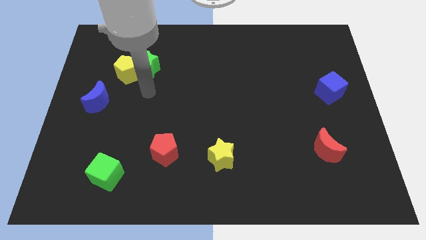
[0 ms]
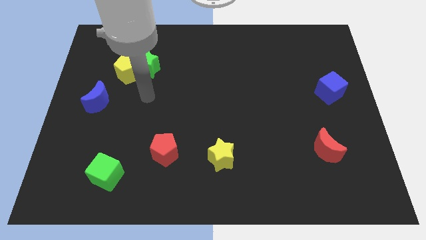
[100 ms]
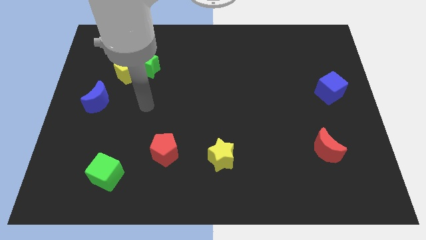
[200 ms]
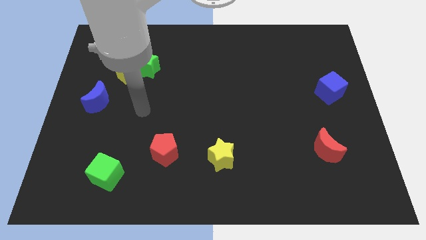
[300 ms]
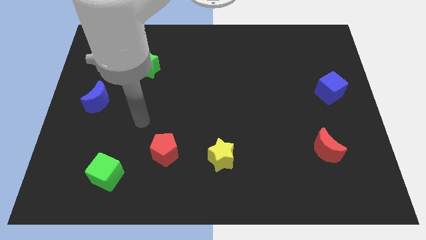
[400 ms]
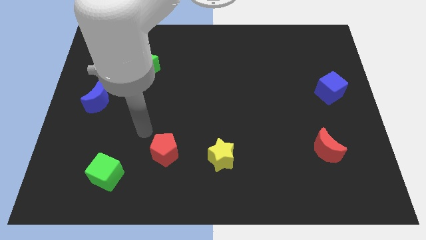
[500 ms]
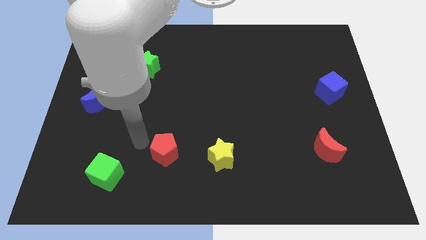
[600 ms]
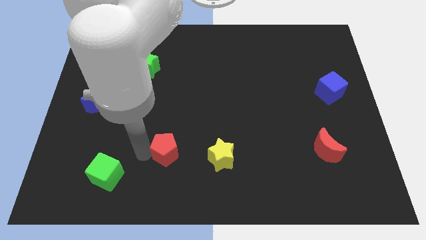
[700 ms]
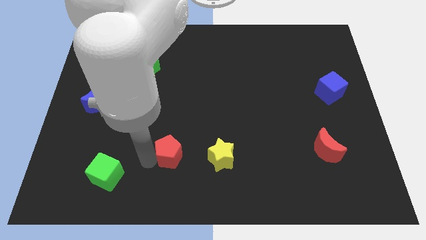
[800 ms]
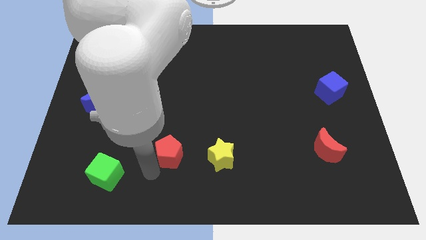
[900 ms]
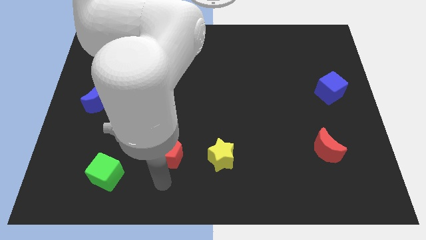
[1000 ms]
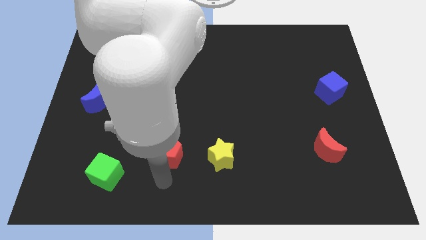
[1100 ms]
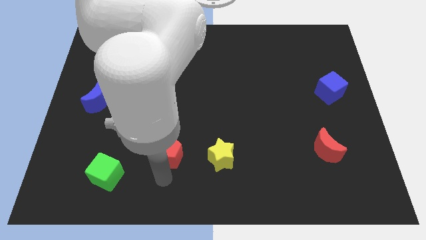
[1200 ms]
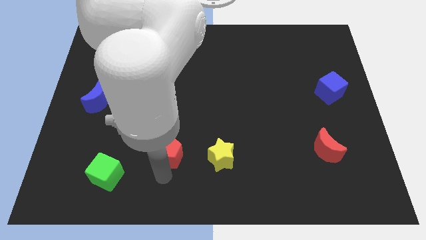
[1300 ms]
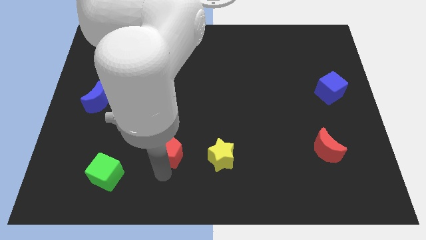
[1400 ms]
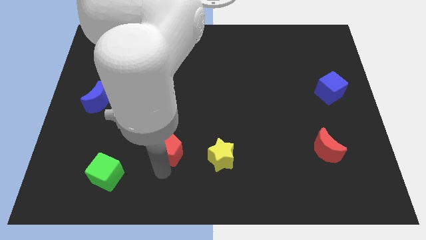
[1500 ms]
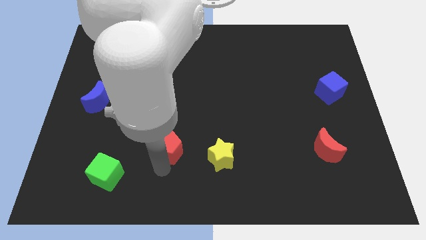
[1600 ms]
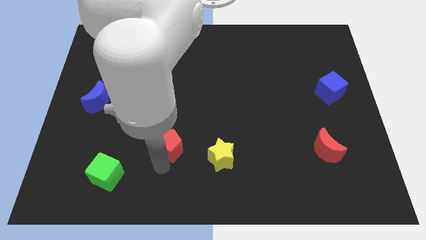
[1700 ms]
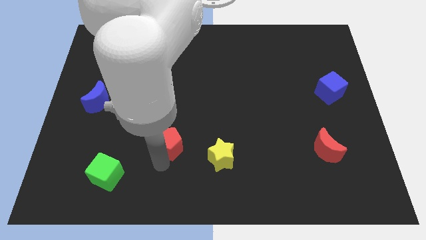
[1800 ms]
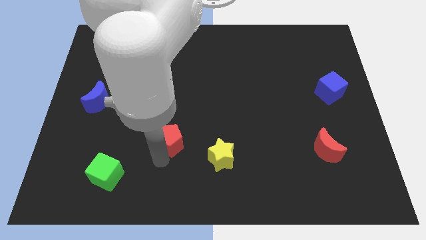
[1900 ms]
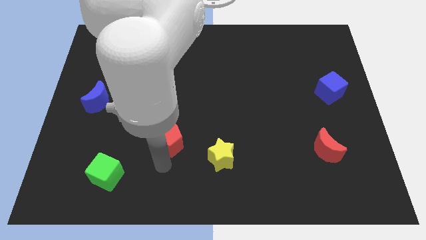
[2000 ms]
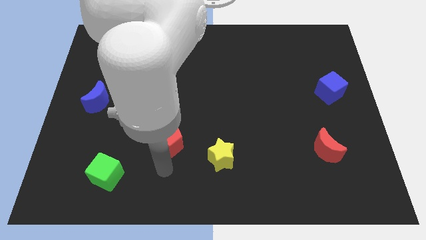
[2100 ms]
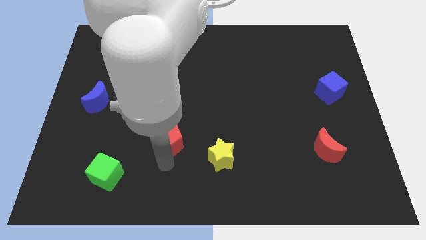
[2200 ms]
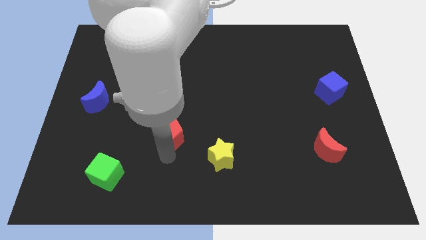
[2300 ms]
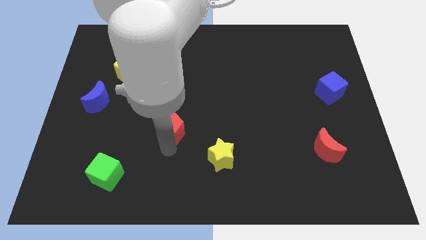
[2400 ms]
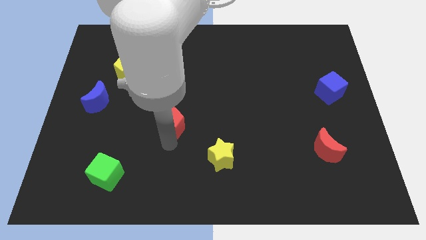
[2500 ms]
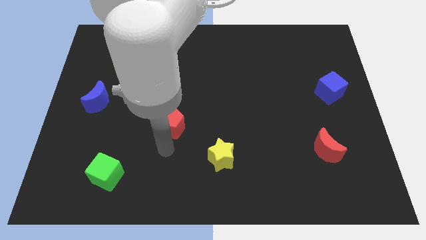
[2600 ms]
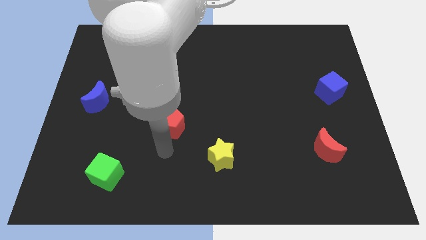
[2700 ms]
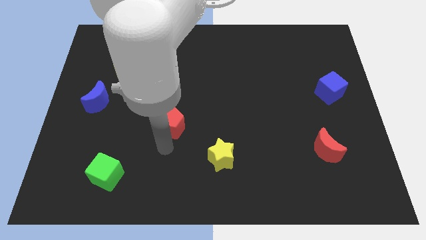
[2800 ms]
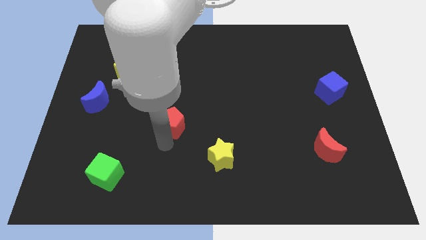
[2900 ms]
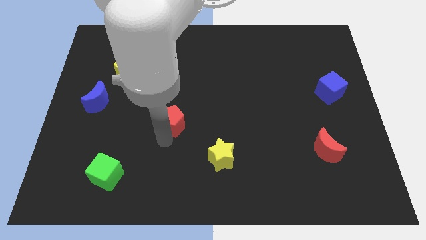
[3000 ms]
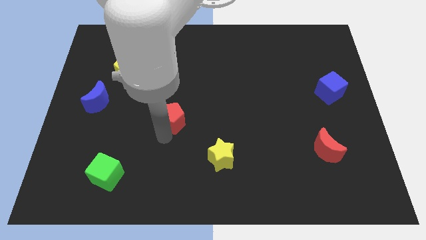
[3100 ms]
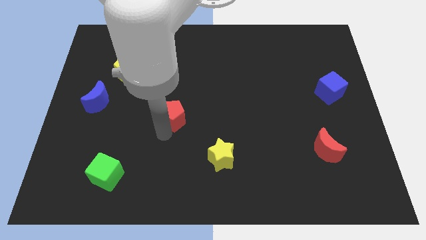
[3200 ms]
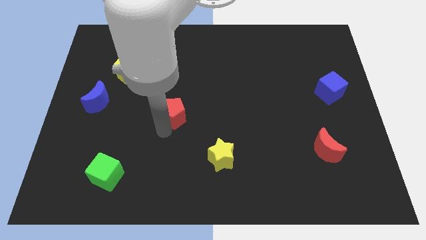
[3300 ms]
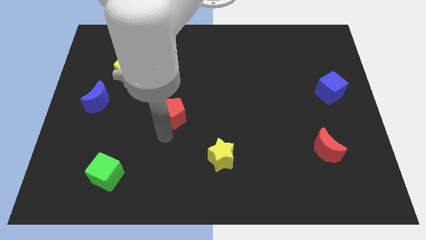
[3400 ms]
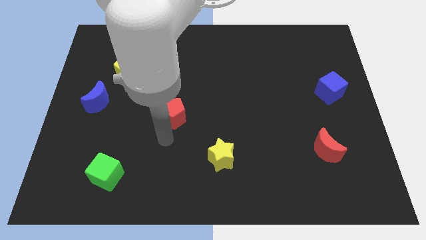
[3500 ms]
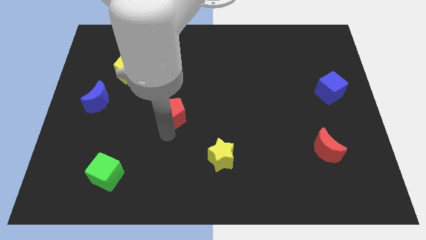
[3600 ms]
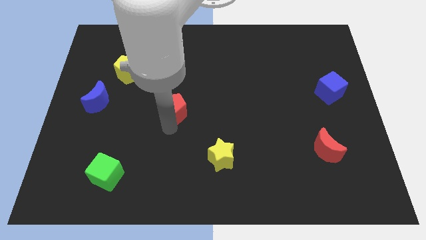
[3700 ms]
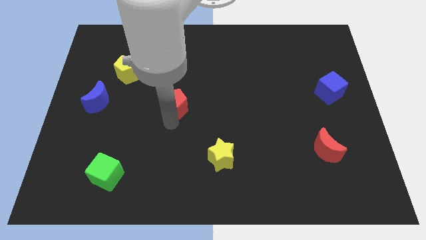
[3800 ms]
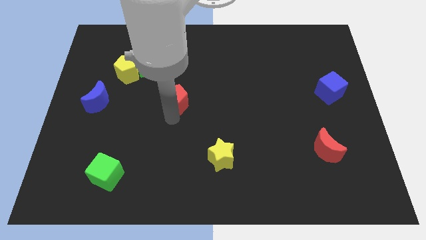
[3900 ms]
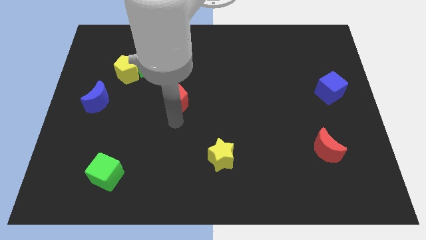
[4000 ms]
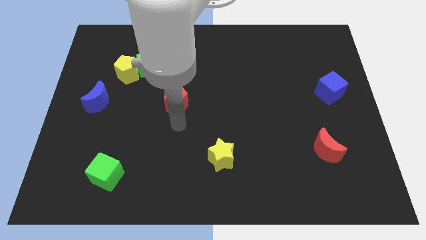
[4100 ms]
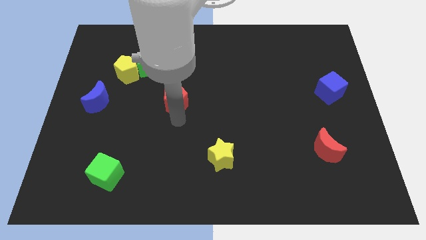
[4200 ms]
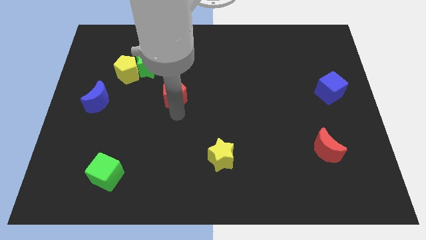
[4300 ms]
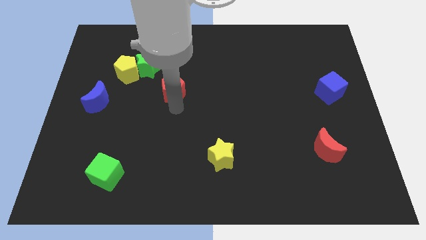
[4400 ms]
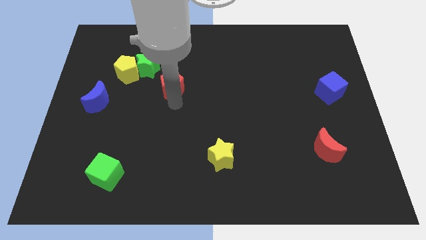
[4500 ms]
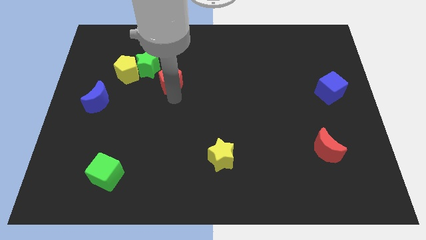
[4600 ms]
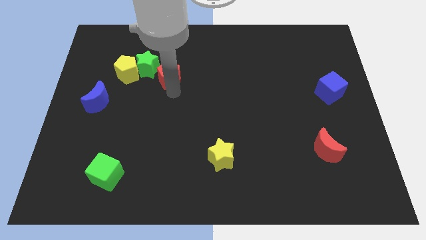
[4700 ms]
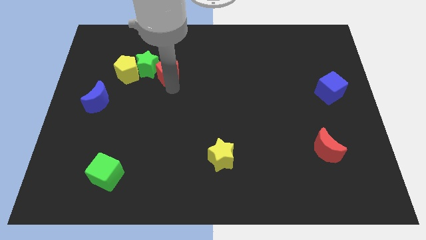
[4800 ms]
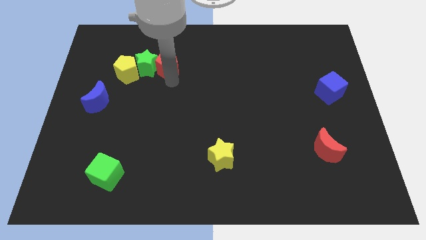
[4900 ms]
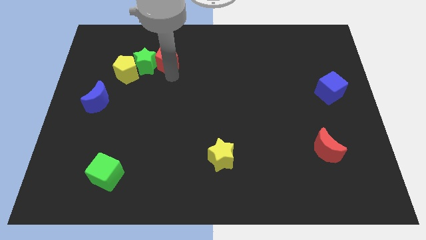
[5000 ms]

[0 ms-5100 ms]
put the red pentagon to the top right of the yellow pentagon

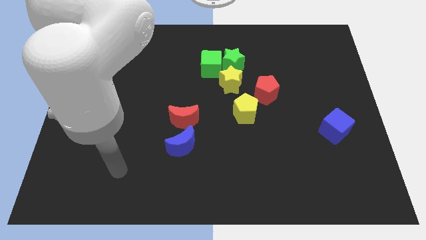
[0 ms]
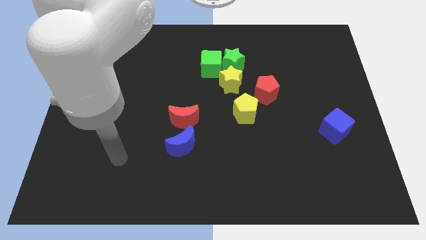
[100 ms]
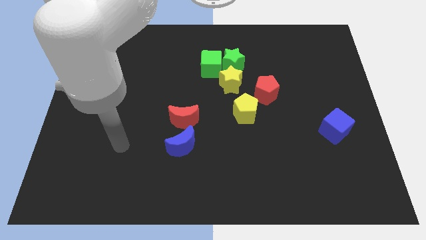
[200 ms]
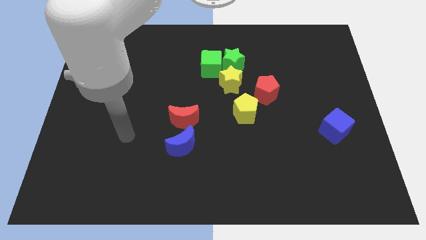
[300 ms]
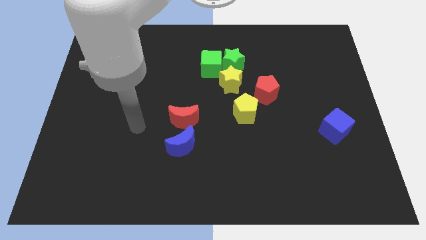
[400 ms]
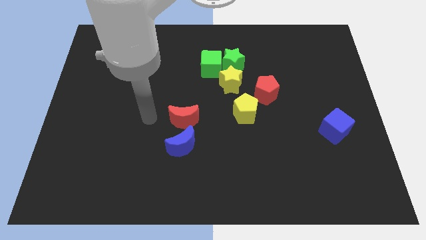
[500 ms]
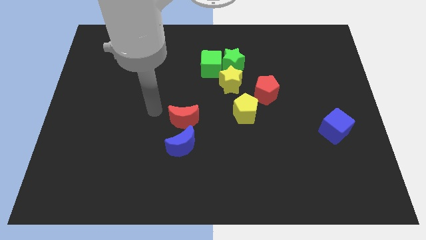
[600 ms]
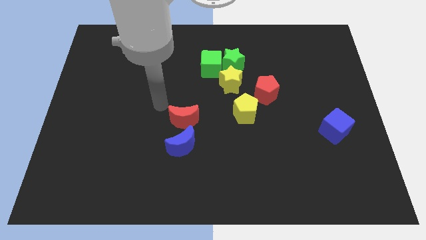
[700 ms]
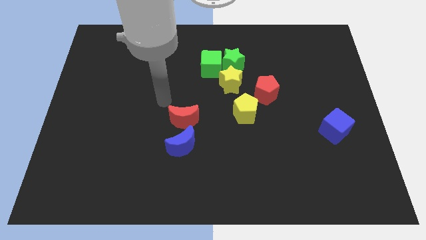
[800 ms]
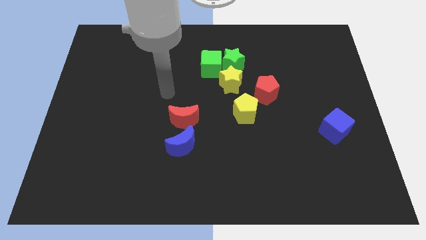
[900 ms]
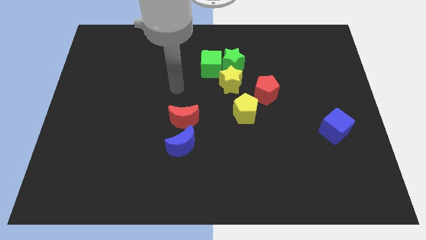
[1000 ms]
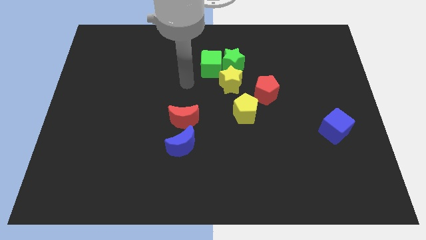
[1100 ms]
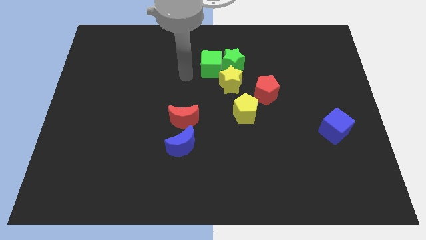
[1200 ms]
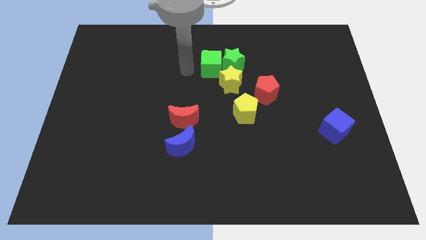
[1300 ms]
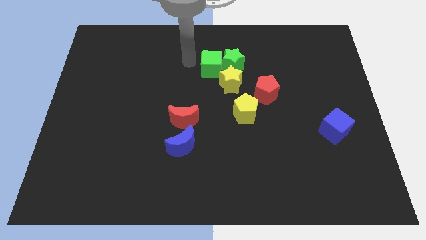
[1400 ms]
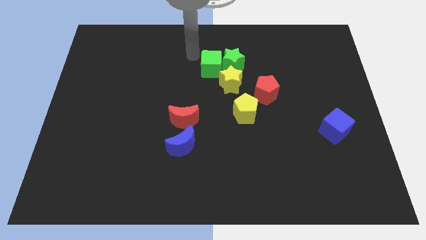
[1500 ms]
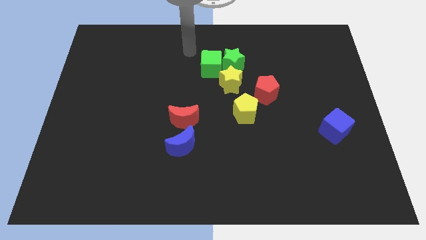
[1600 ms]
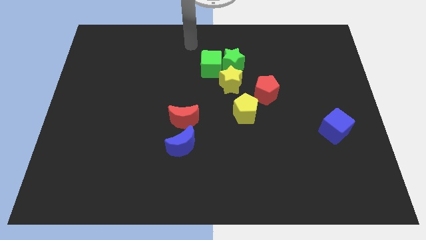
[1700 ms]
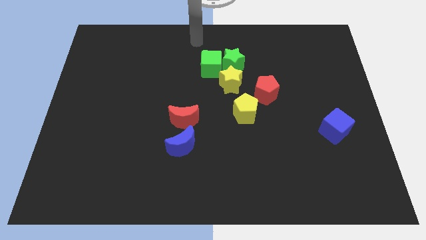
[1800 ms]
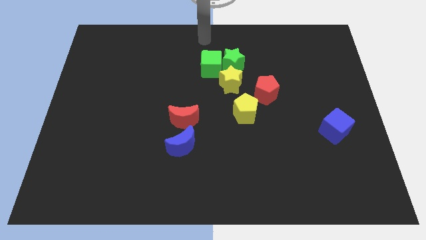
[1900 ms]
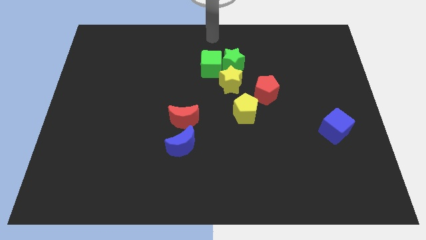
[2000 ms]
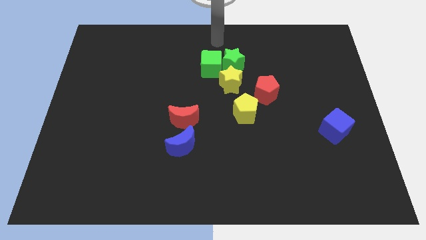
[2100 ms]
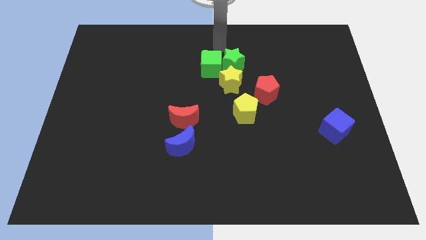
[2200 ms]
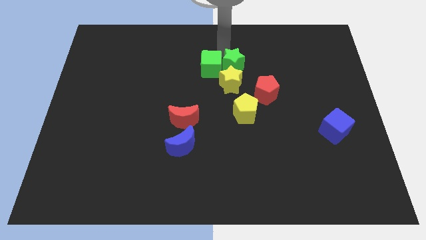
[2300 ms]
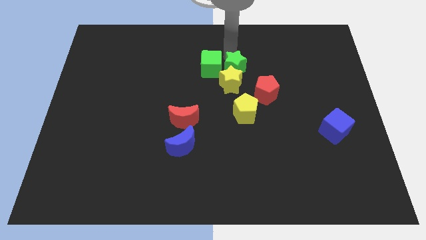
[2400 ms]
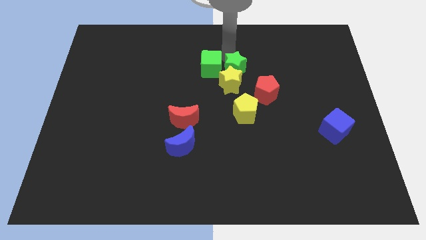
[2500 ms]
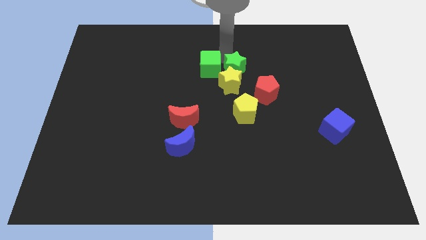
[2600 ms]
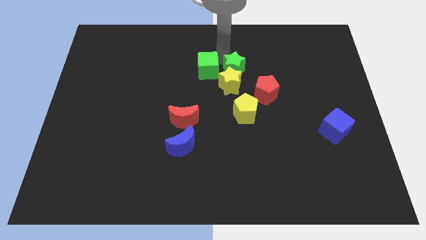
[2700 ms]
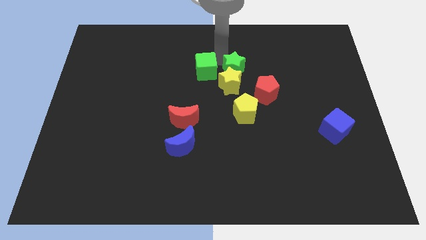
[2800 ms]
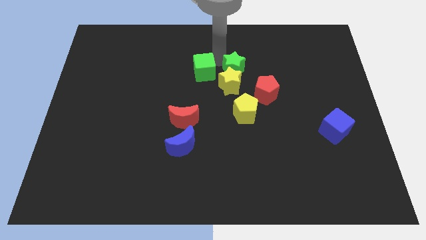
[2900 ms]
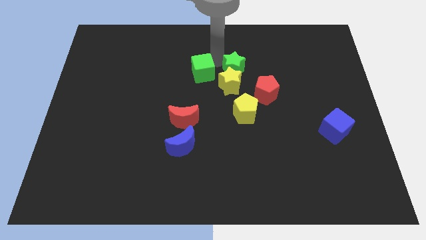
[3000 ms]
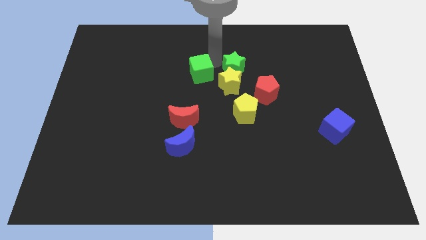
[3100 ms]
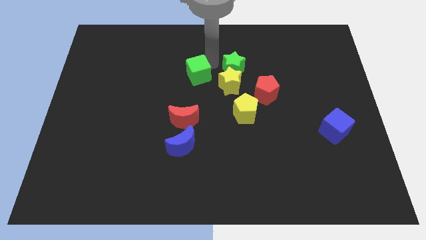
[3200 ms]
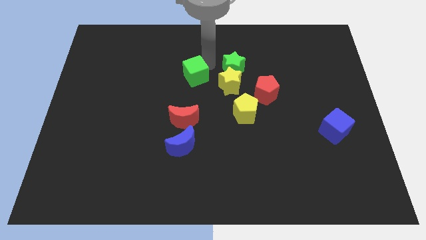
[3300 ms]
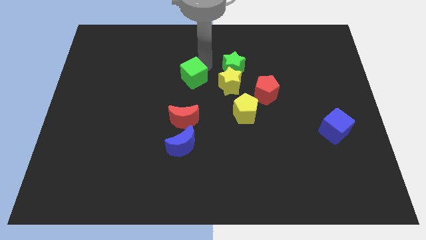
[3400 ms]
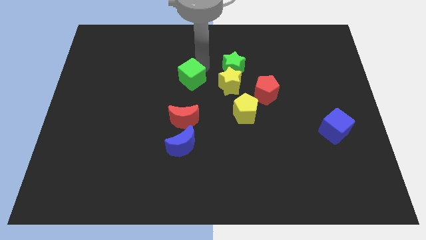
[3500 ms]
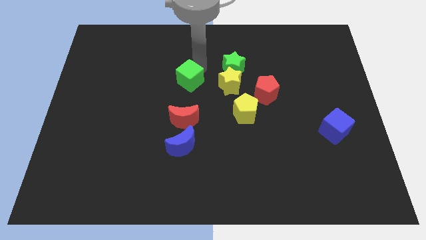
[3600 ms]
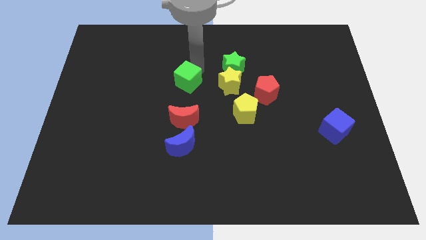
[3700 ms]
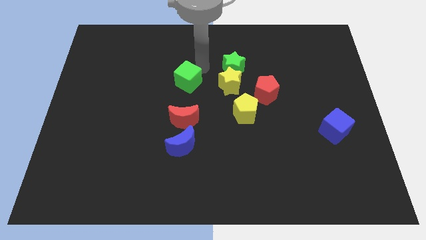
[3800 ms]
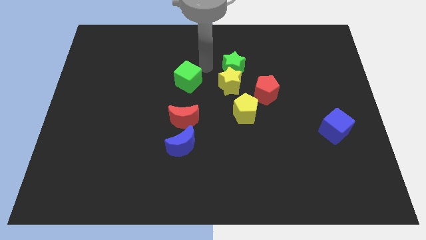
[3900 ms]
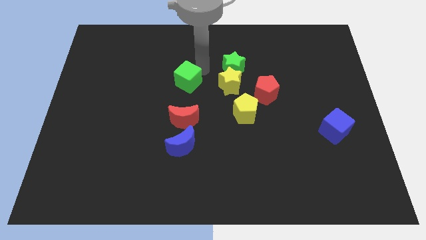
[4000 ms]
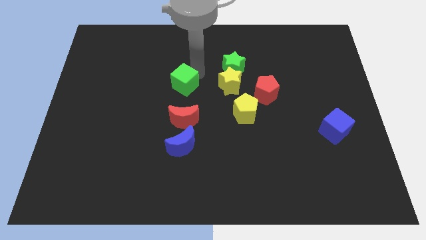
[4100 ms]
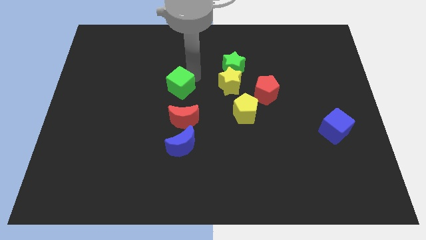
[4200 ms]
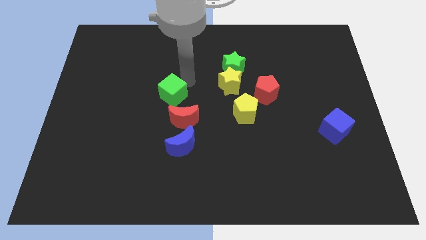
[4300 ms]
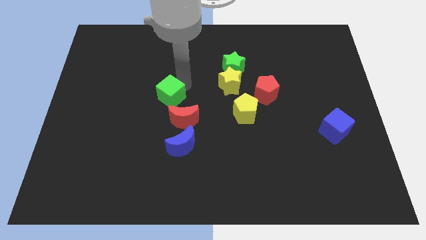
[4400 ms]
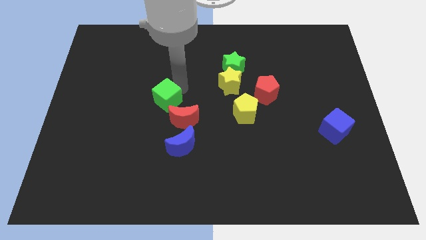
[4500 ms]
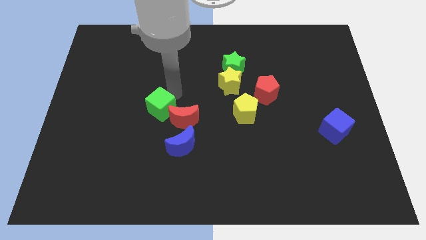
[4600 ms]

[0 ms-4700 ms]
push the green cube to the left of the red moon
